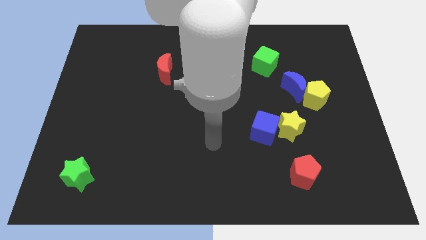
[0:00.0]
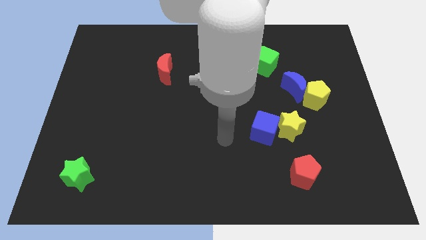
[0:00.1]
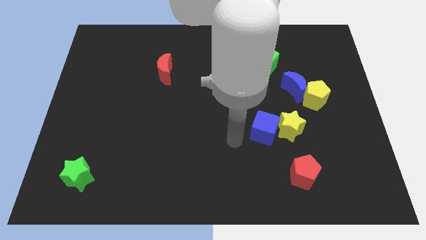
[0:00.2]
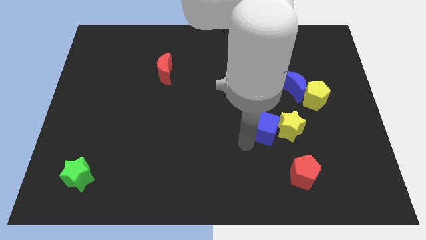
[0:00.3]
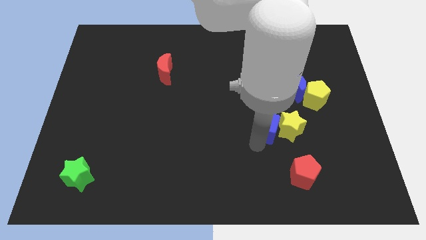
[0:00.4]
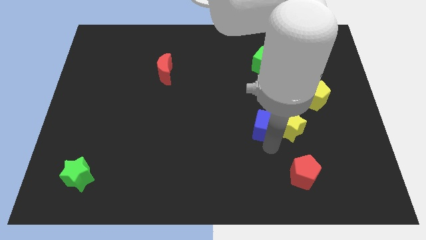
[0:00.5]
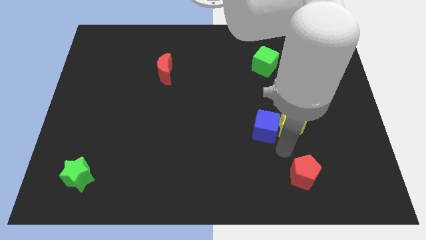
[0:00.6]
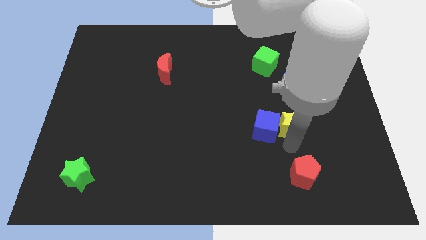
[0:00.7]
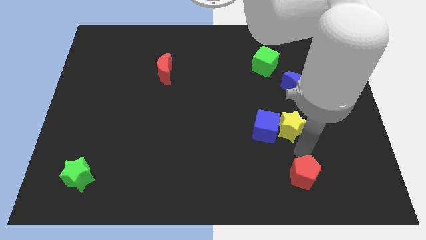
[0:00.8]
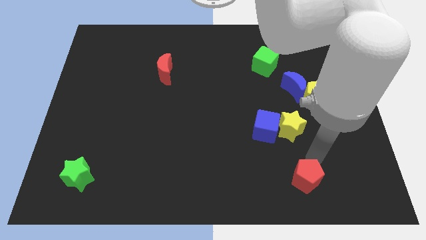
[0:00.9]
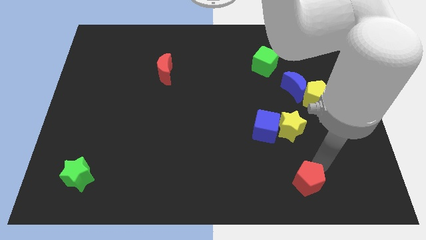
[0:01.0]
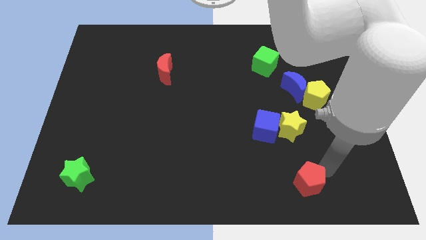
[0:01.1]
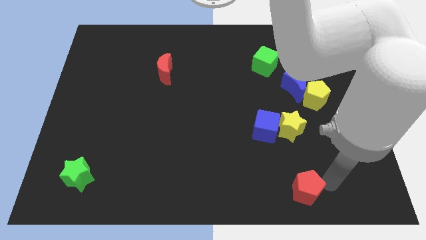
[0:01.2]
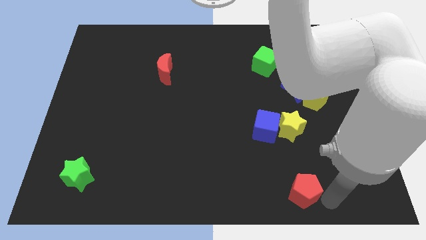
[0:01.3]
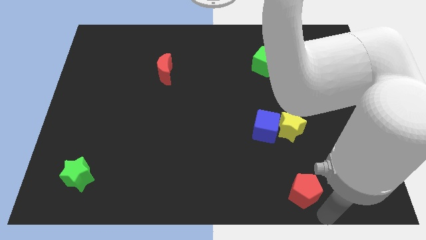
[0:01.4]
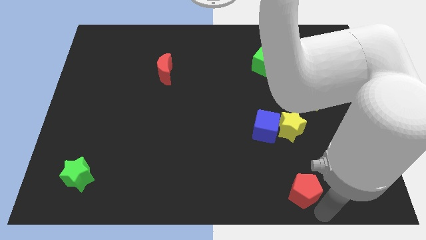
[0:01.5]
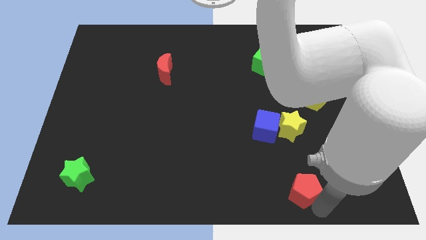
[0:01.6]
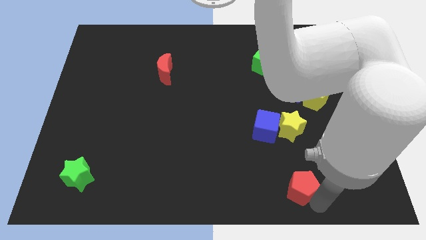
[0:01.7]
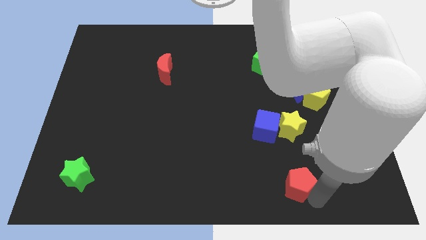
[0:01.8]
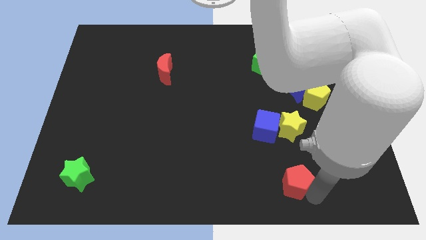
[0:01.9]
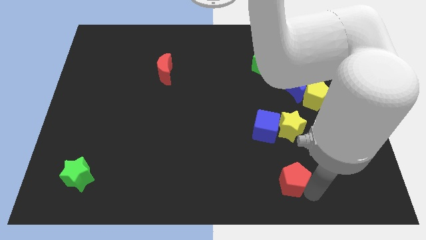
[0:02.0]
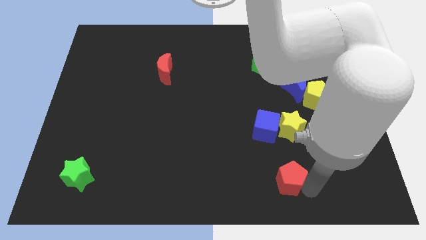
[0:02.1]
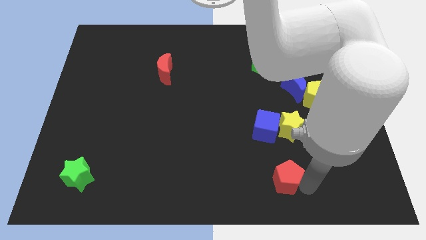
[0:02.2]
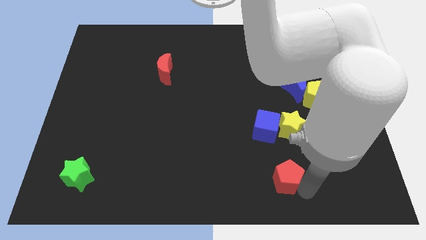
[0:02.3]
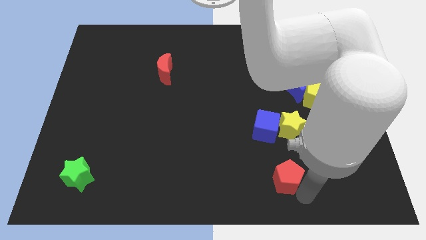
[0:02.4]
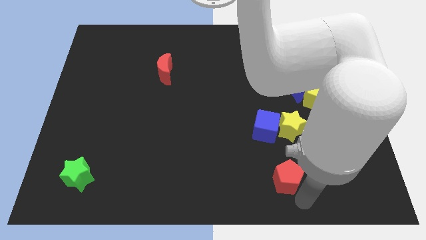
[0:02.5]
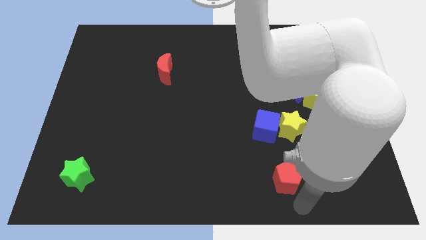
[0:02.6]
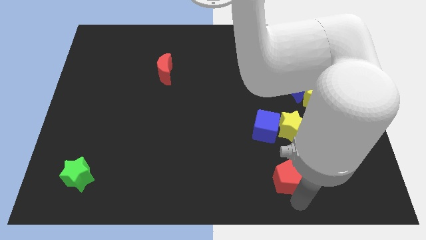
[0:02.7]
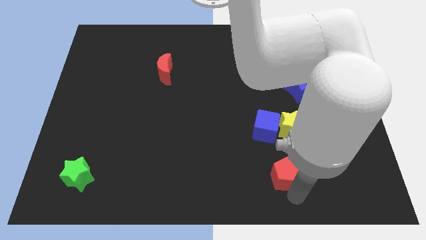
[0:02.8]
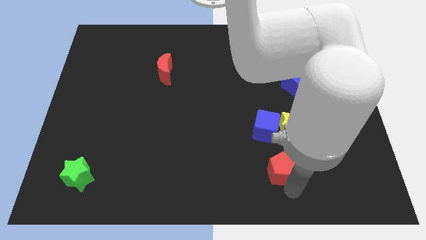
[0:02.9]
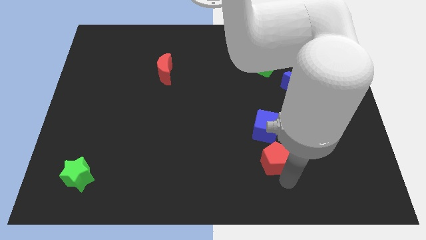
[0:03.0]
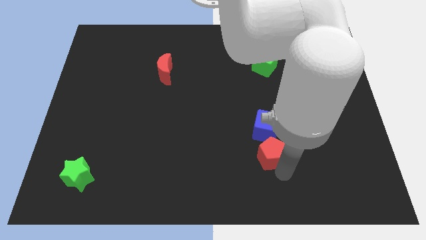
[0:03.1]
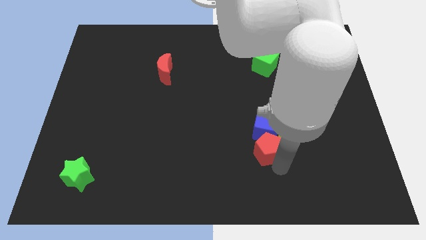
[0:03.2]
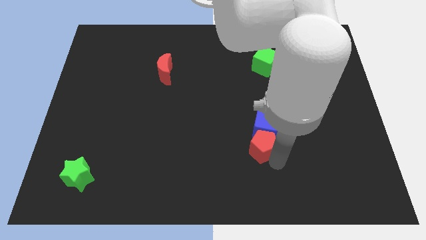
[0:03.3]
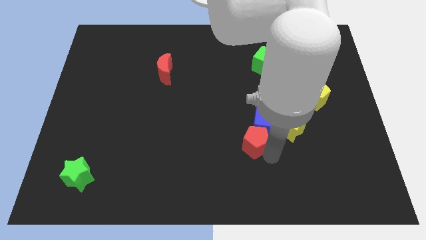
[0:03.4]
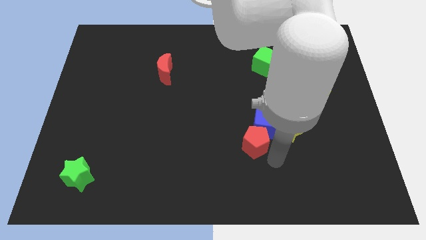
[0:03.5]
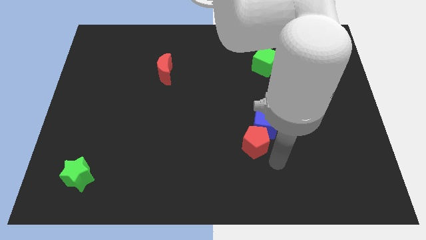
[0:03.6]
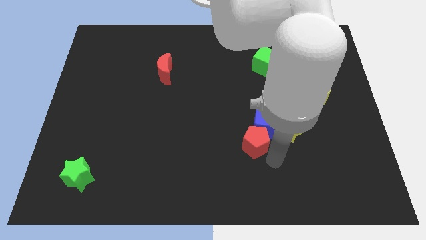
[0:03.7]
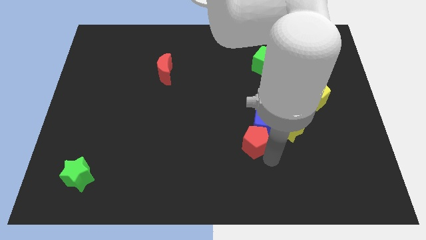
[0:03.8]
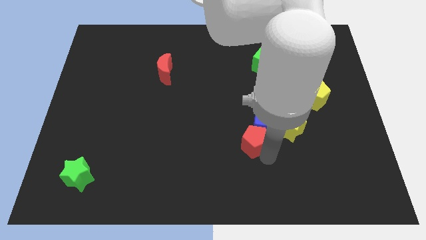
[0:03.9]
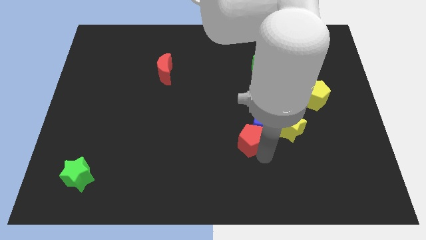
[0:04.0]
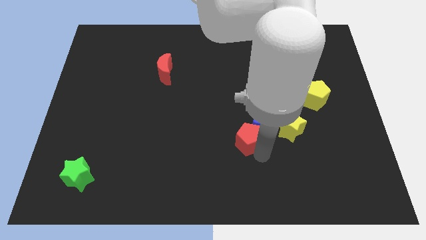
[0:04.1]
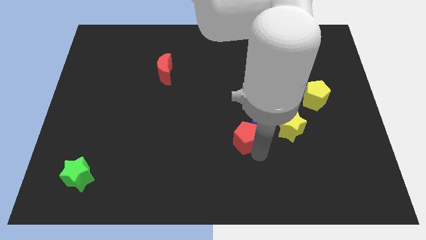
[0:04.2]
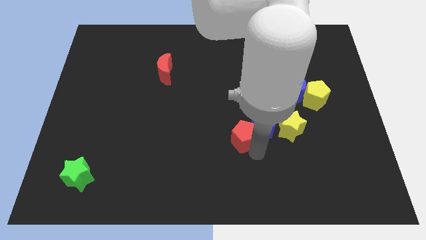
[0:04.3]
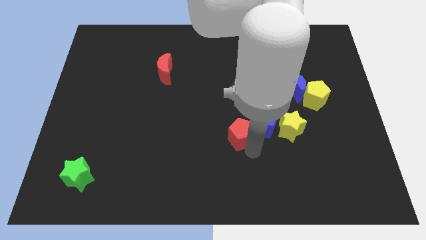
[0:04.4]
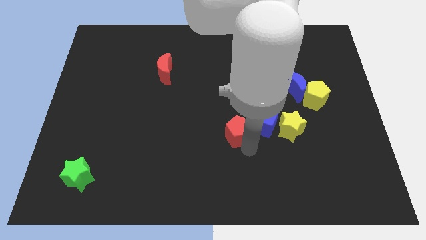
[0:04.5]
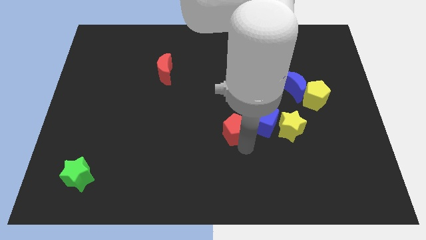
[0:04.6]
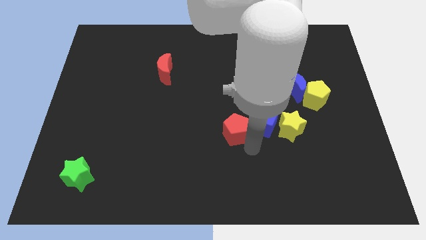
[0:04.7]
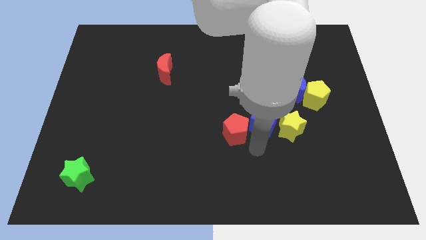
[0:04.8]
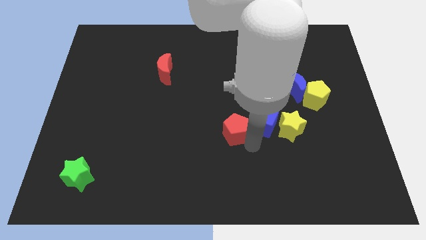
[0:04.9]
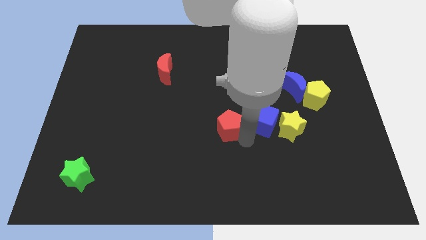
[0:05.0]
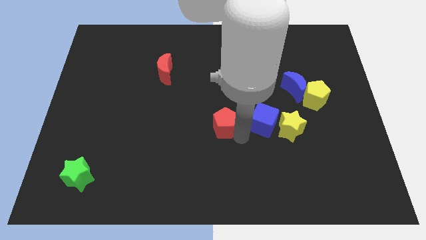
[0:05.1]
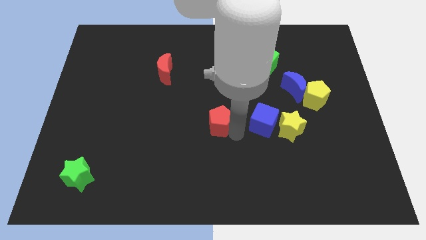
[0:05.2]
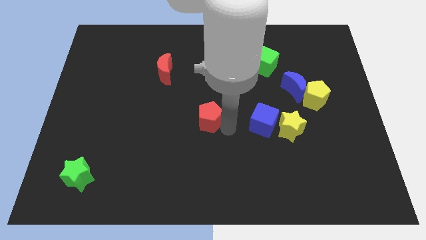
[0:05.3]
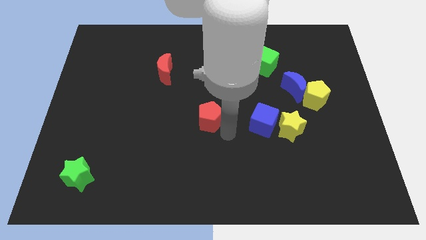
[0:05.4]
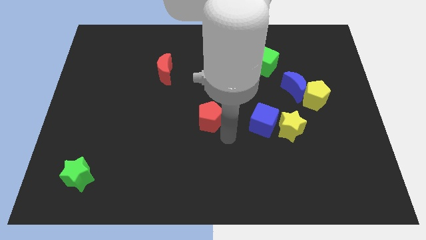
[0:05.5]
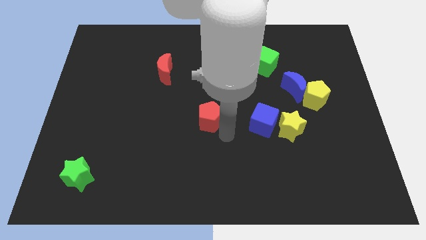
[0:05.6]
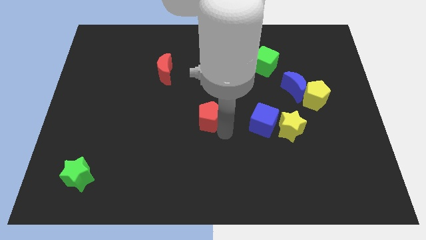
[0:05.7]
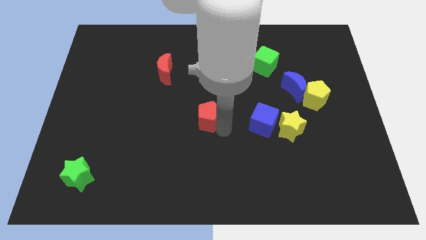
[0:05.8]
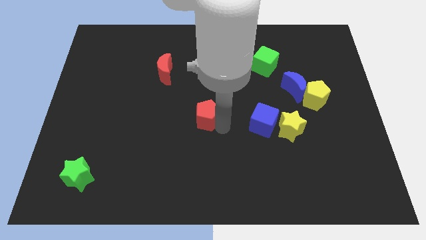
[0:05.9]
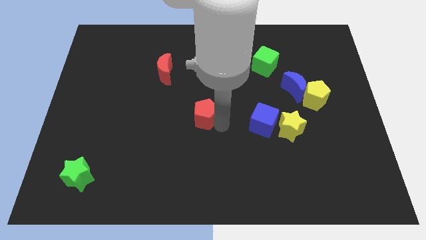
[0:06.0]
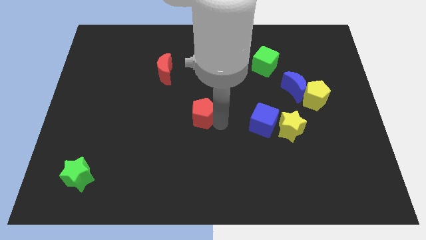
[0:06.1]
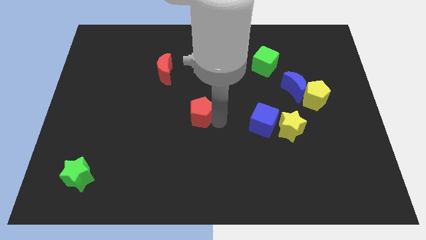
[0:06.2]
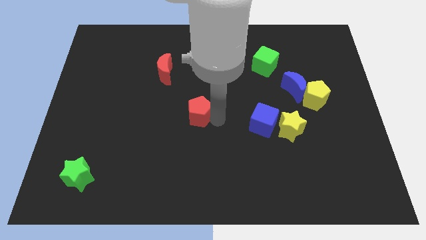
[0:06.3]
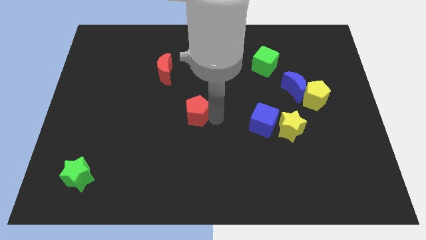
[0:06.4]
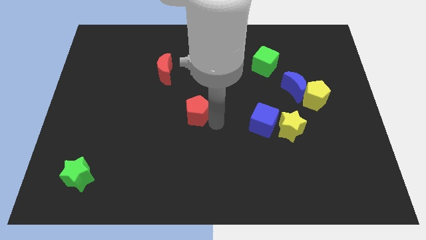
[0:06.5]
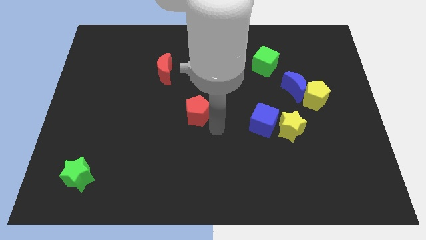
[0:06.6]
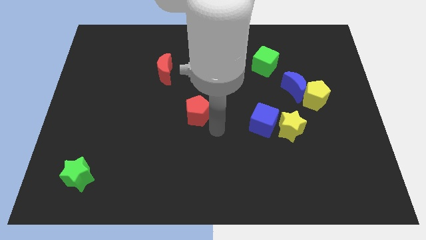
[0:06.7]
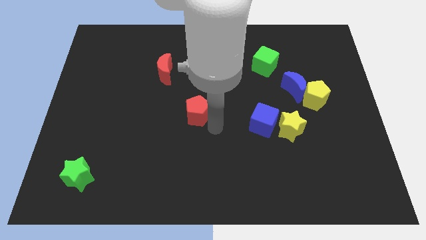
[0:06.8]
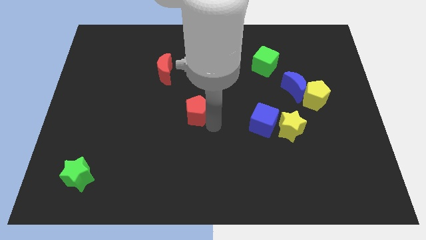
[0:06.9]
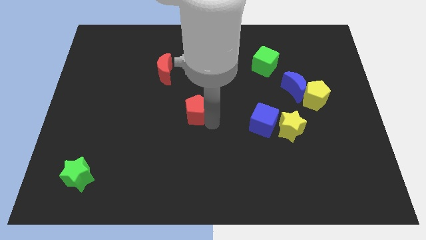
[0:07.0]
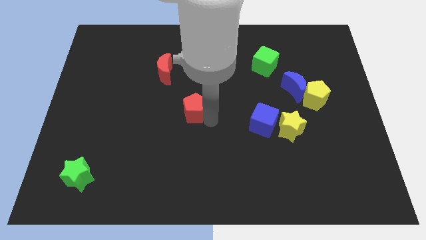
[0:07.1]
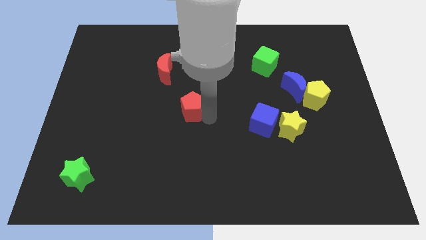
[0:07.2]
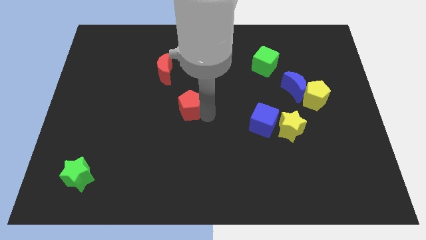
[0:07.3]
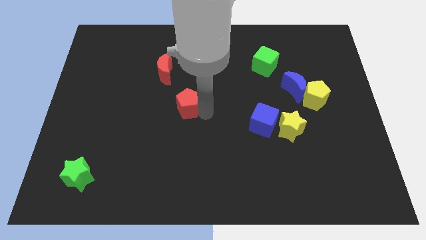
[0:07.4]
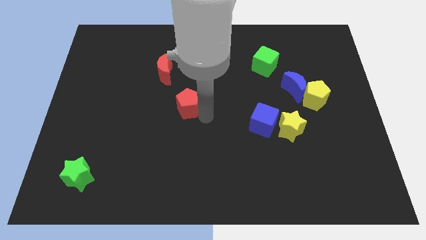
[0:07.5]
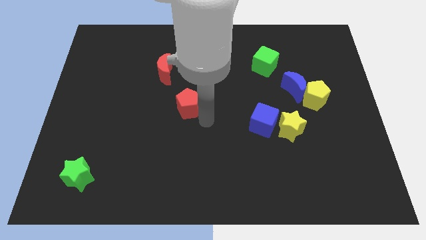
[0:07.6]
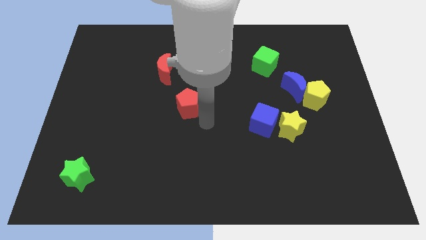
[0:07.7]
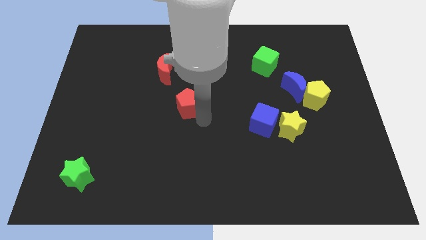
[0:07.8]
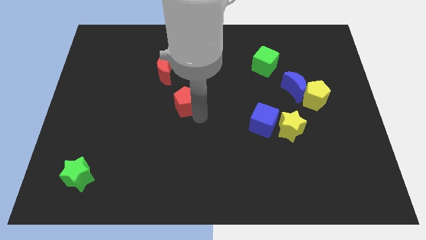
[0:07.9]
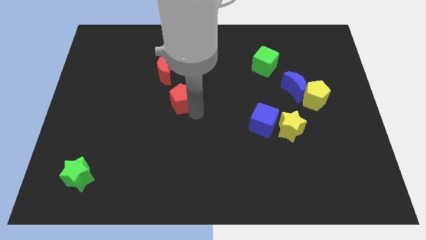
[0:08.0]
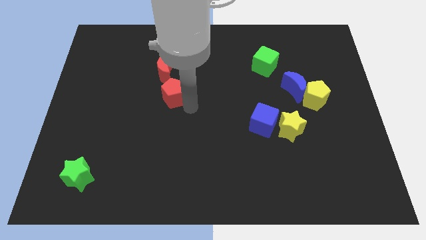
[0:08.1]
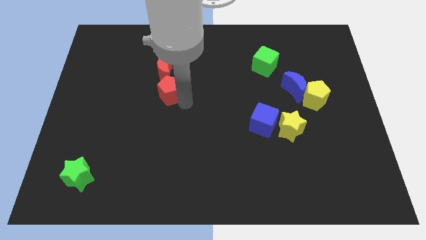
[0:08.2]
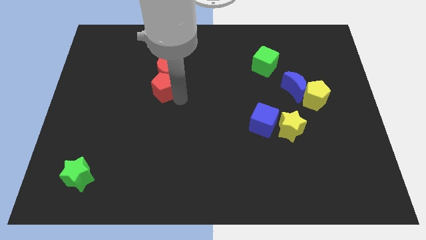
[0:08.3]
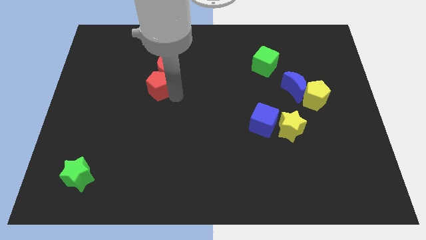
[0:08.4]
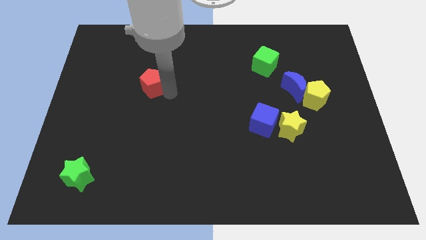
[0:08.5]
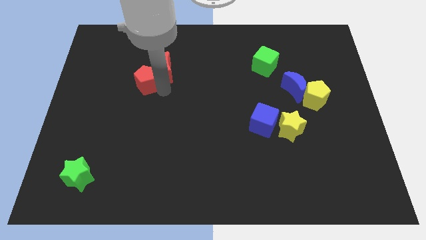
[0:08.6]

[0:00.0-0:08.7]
move the red pentagon just left of the red moon
